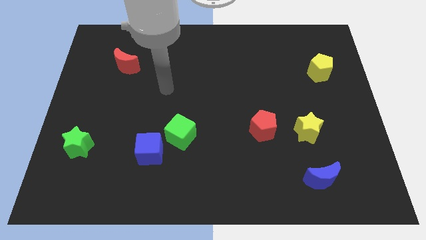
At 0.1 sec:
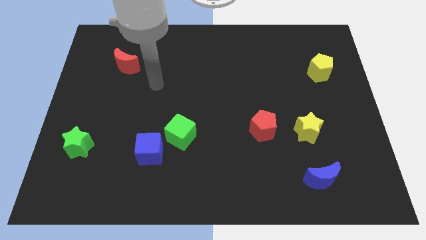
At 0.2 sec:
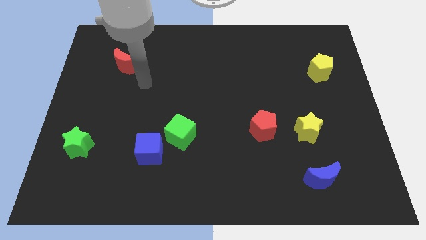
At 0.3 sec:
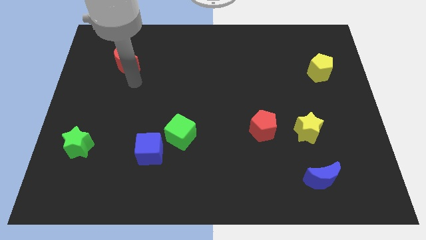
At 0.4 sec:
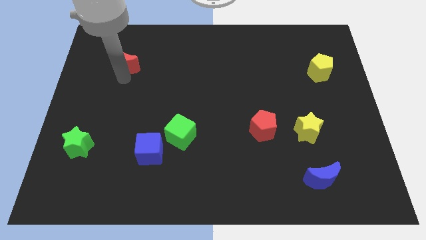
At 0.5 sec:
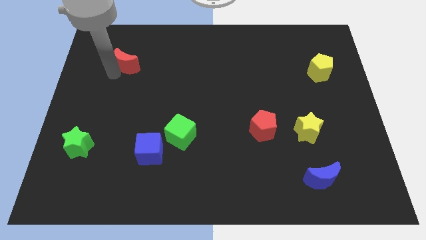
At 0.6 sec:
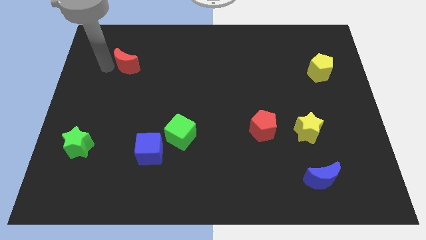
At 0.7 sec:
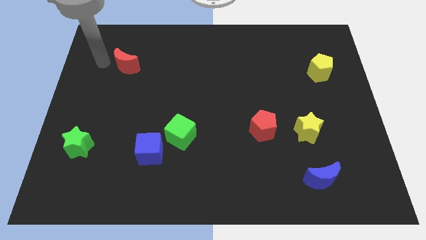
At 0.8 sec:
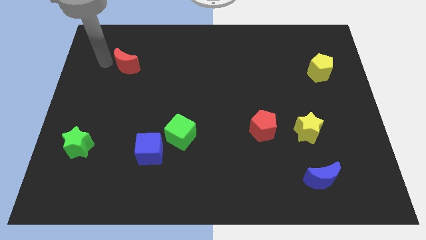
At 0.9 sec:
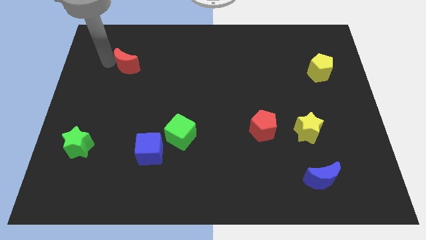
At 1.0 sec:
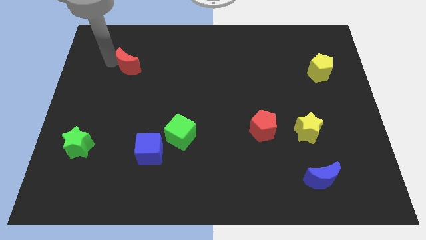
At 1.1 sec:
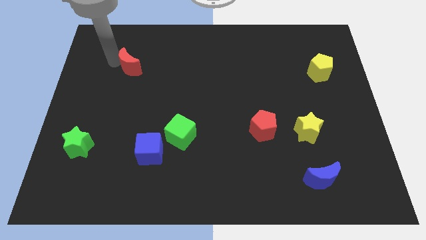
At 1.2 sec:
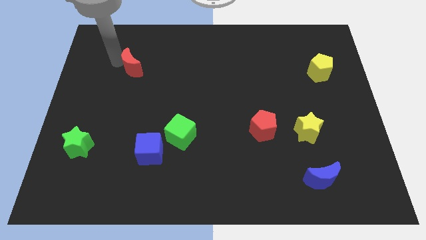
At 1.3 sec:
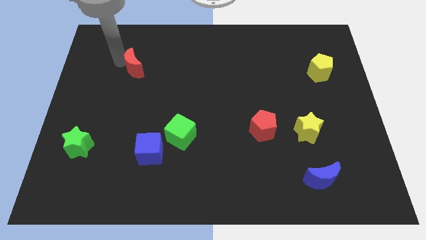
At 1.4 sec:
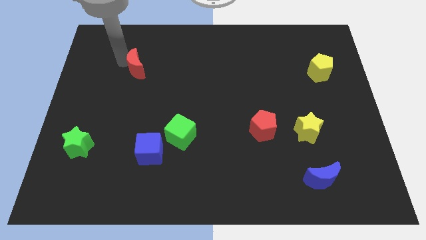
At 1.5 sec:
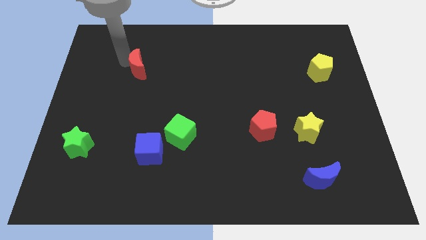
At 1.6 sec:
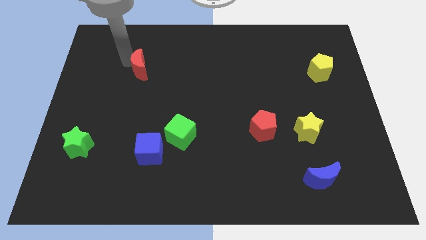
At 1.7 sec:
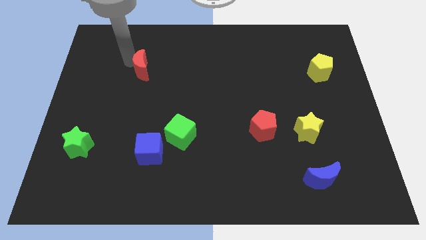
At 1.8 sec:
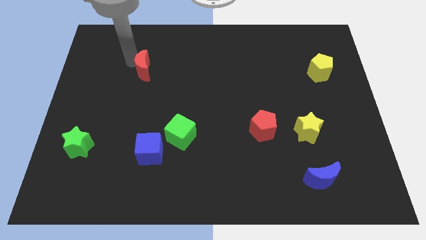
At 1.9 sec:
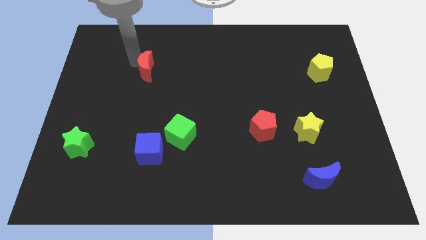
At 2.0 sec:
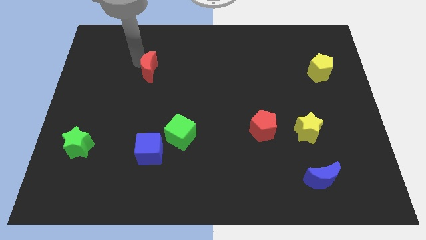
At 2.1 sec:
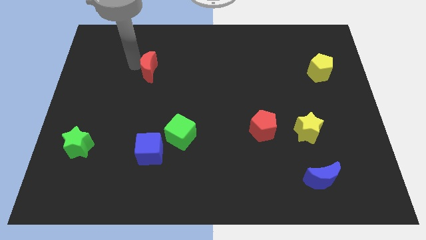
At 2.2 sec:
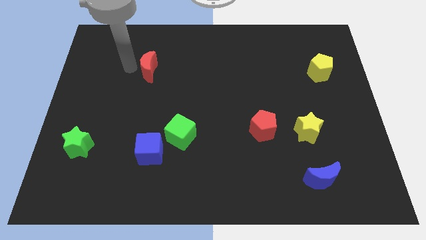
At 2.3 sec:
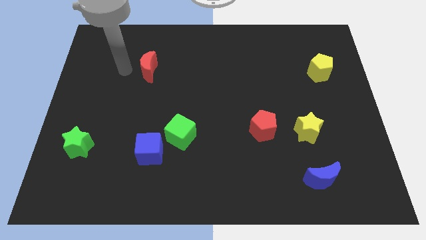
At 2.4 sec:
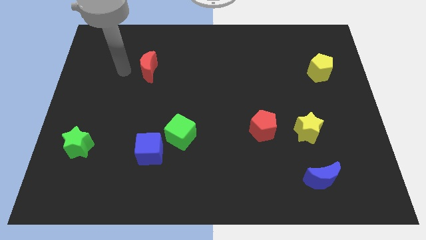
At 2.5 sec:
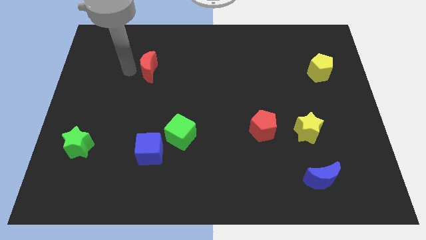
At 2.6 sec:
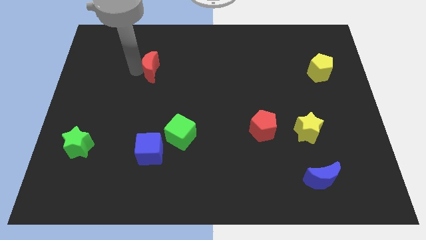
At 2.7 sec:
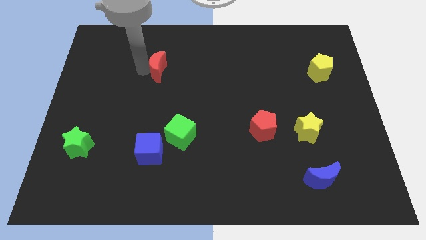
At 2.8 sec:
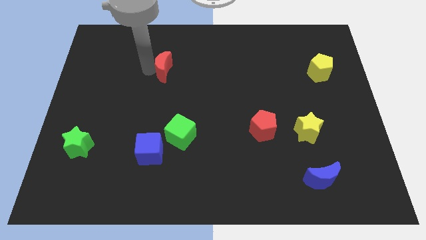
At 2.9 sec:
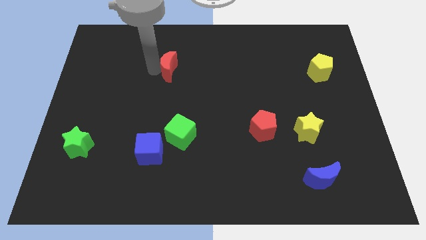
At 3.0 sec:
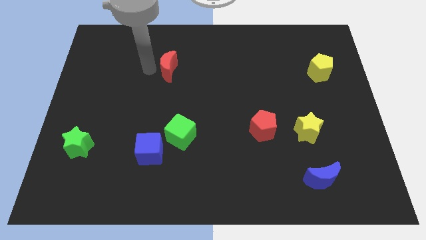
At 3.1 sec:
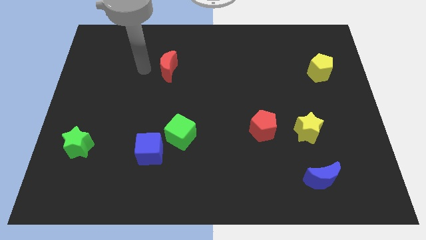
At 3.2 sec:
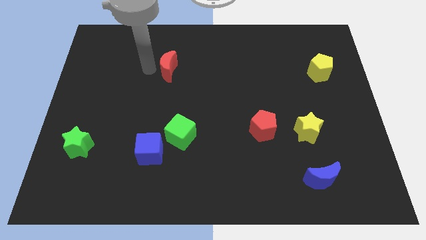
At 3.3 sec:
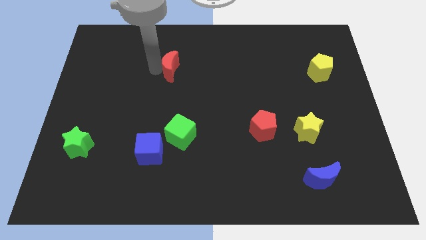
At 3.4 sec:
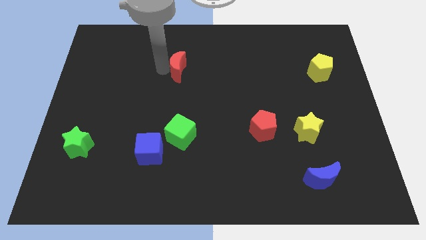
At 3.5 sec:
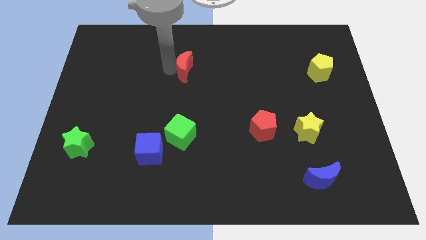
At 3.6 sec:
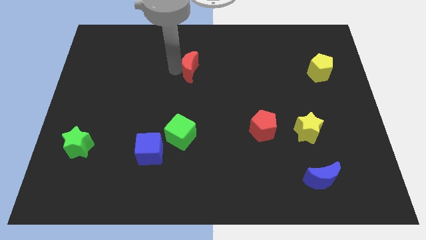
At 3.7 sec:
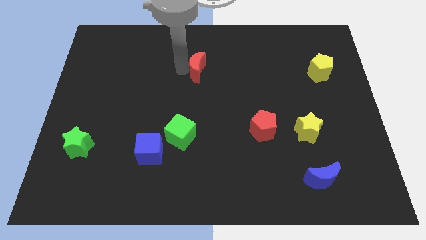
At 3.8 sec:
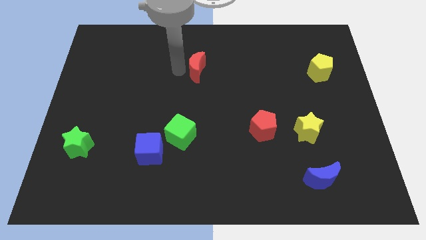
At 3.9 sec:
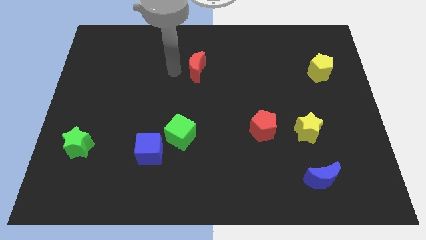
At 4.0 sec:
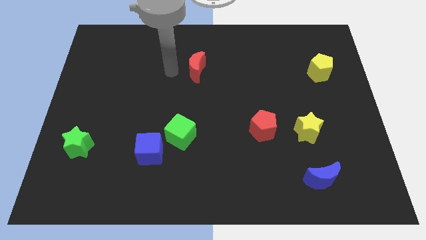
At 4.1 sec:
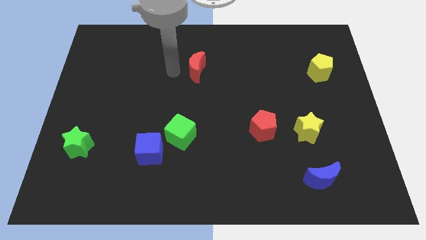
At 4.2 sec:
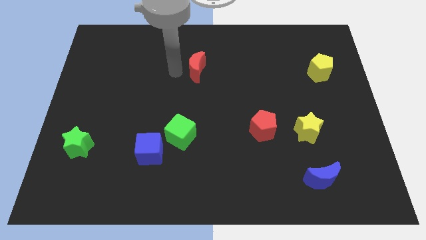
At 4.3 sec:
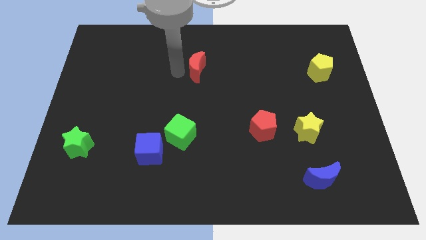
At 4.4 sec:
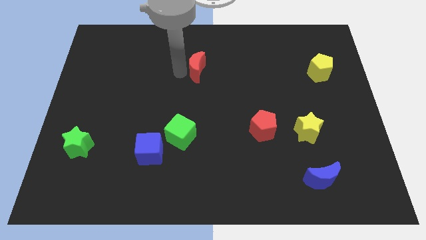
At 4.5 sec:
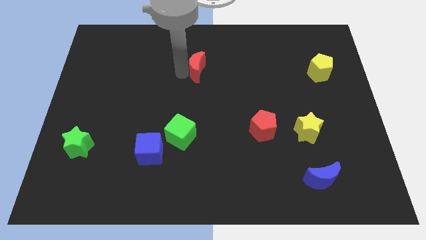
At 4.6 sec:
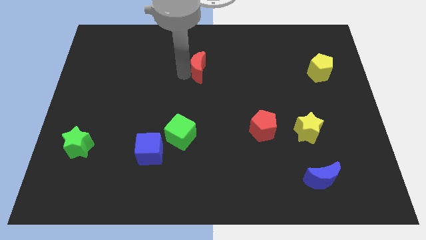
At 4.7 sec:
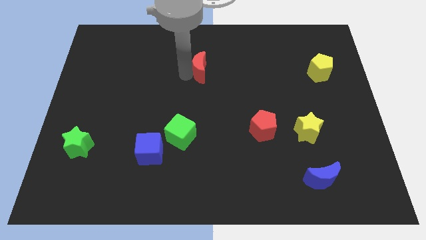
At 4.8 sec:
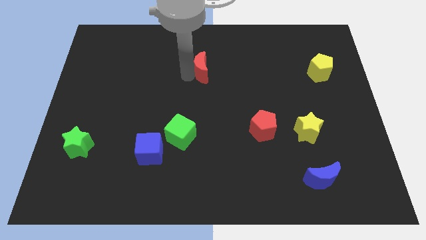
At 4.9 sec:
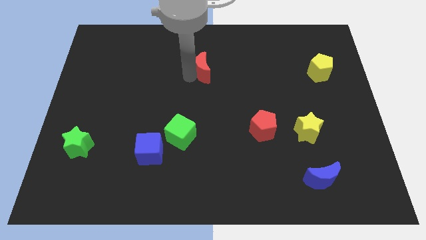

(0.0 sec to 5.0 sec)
push the red moon right

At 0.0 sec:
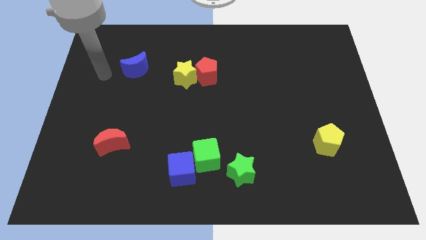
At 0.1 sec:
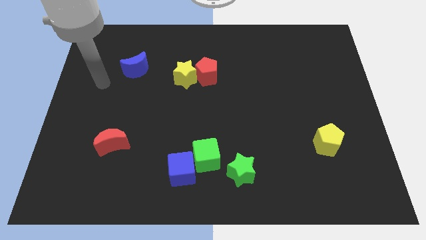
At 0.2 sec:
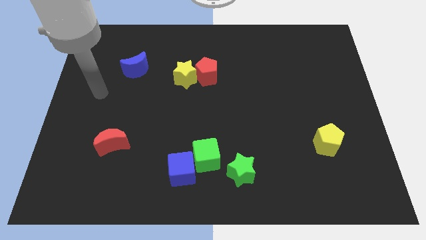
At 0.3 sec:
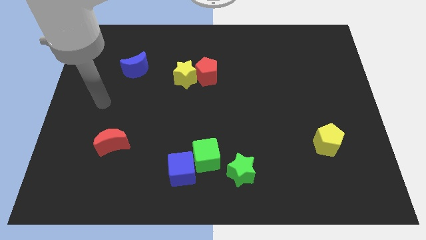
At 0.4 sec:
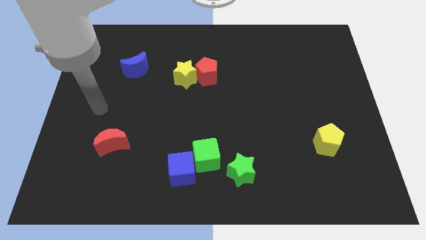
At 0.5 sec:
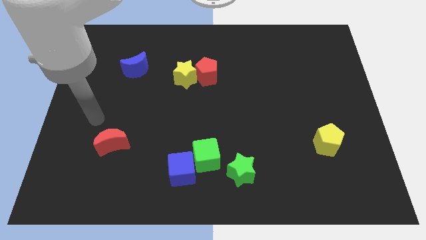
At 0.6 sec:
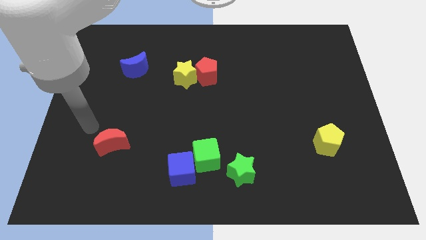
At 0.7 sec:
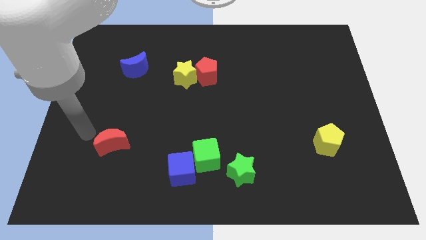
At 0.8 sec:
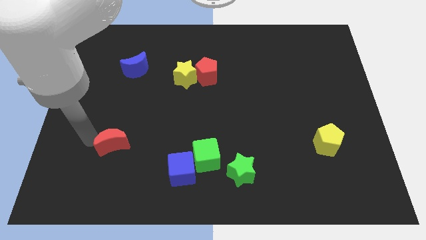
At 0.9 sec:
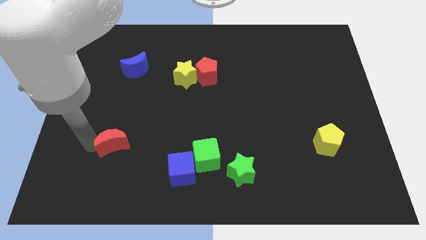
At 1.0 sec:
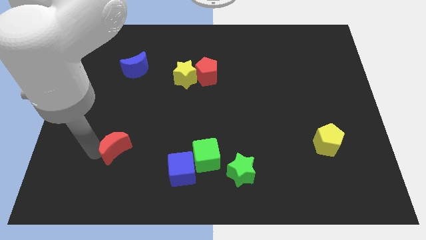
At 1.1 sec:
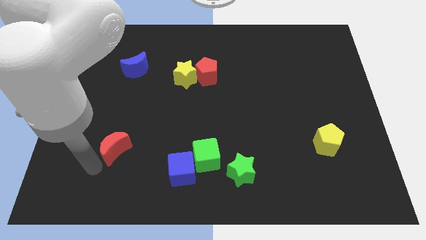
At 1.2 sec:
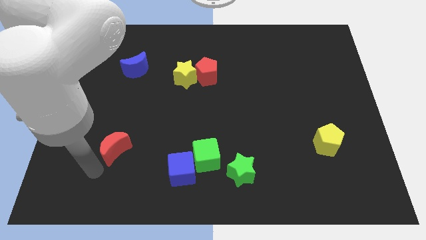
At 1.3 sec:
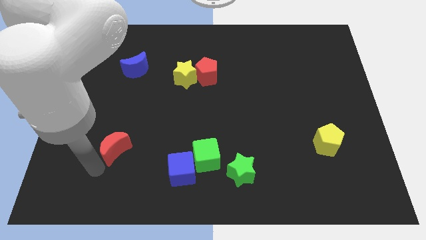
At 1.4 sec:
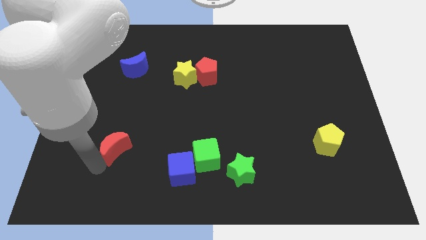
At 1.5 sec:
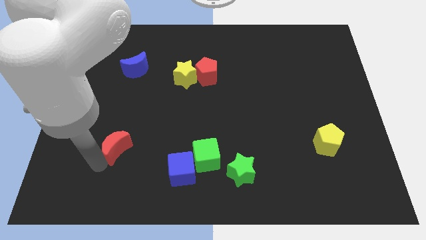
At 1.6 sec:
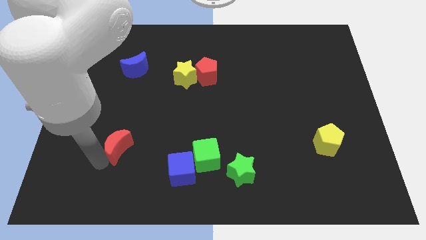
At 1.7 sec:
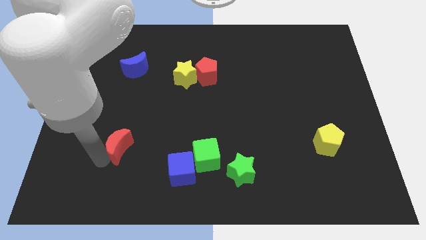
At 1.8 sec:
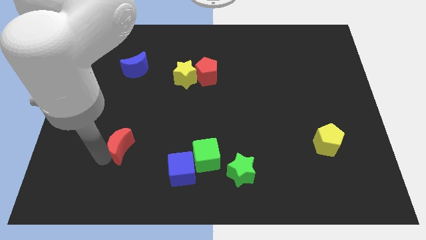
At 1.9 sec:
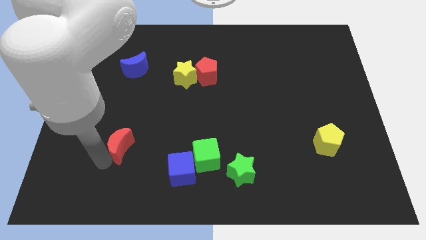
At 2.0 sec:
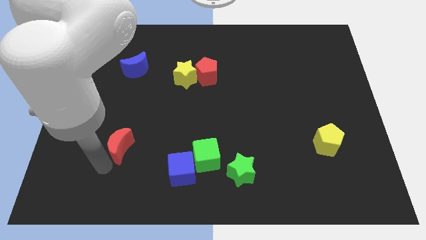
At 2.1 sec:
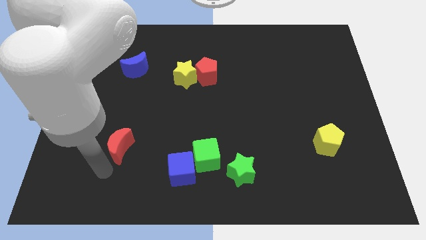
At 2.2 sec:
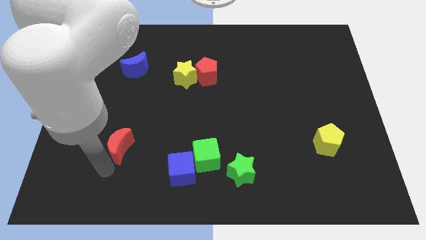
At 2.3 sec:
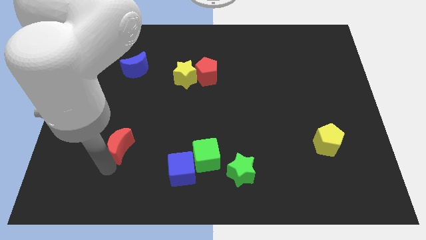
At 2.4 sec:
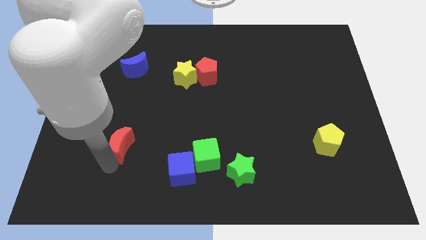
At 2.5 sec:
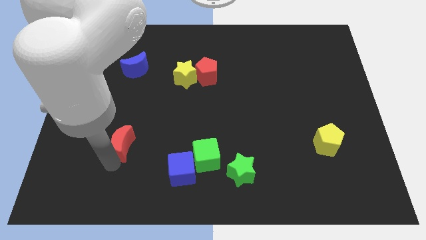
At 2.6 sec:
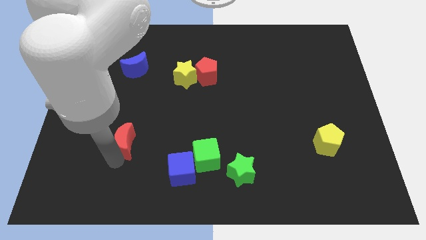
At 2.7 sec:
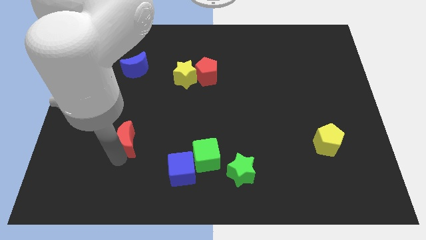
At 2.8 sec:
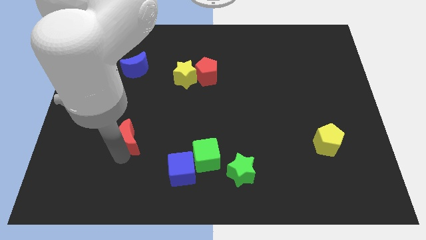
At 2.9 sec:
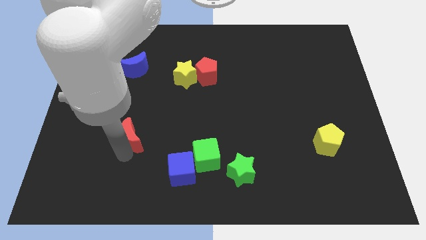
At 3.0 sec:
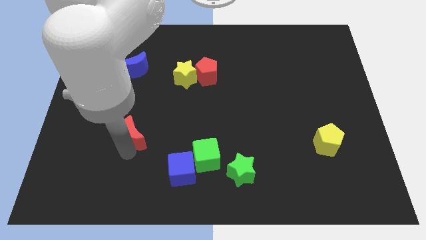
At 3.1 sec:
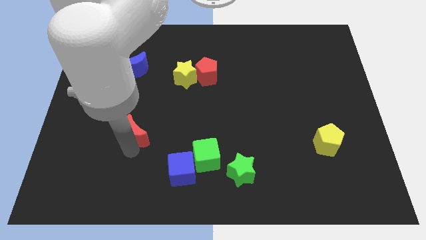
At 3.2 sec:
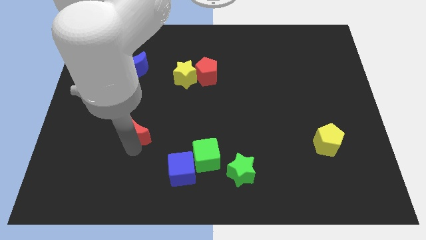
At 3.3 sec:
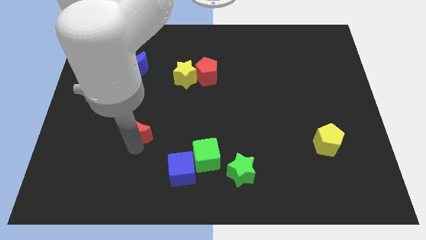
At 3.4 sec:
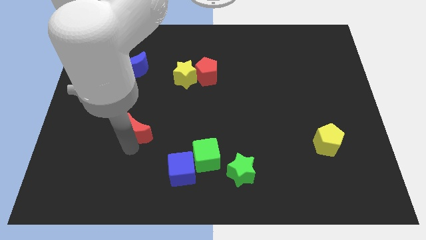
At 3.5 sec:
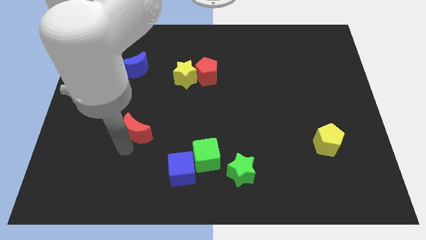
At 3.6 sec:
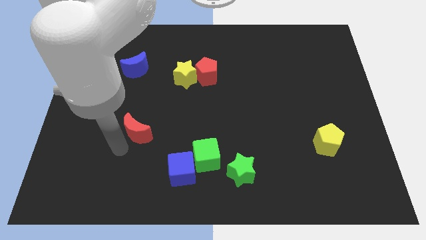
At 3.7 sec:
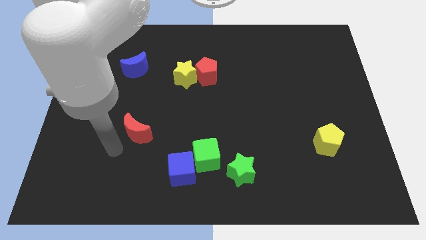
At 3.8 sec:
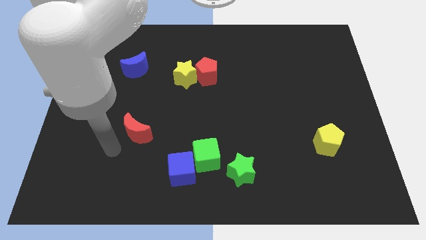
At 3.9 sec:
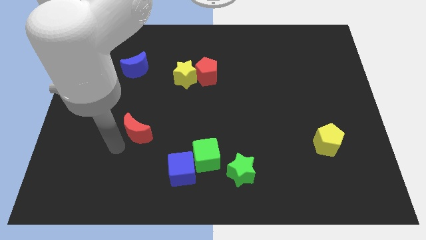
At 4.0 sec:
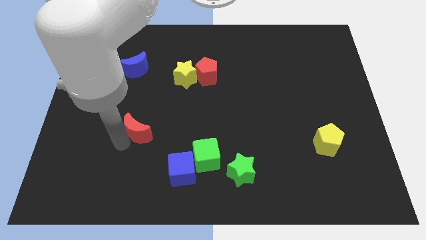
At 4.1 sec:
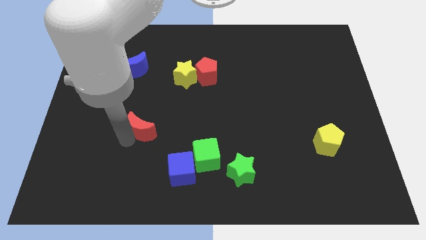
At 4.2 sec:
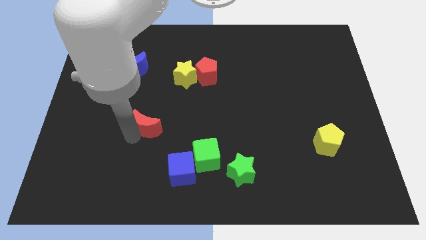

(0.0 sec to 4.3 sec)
slide the red moon up and to the right somewhat
